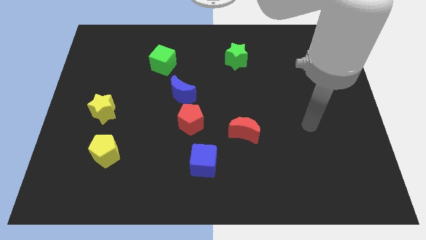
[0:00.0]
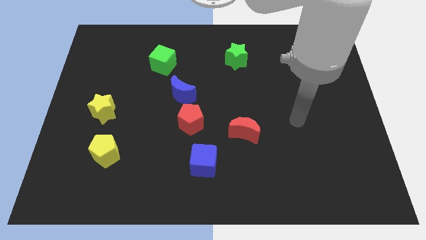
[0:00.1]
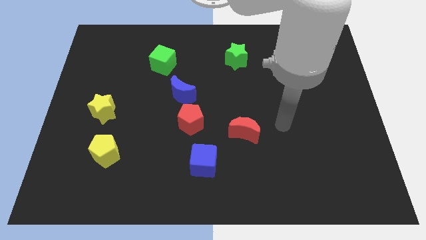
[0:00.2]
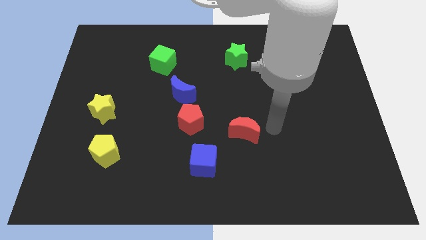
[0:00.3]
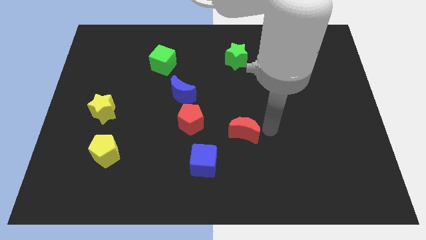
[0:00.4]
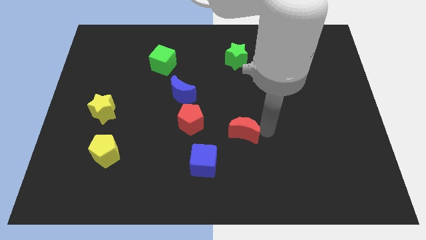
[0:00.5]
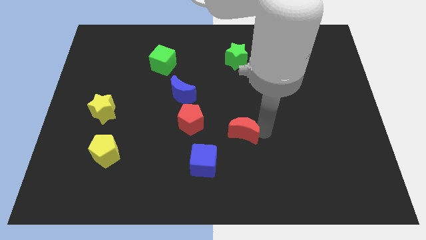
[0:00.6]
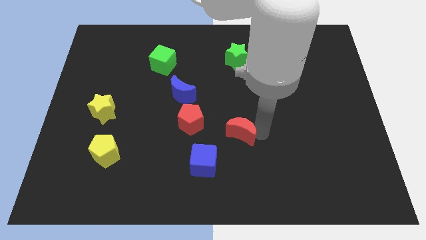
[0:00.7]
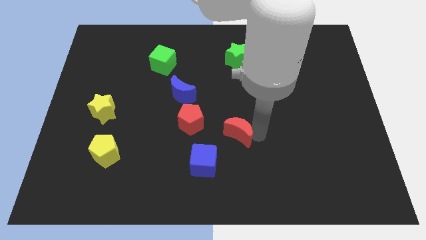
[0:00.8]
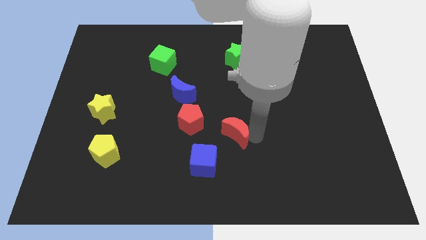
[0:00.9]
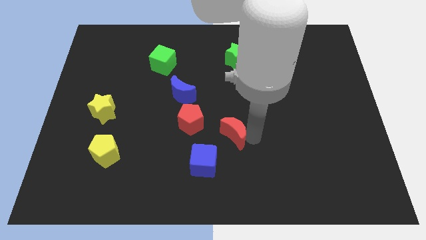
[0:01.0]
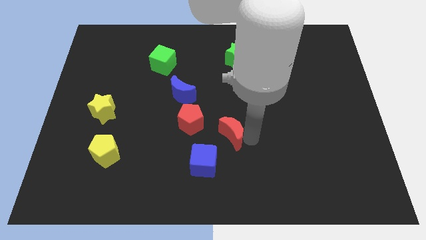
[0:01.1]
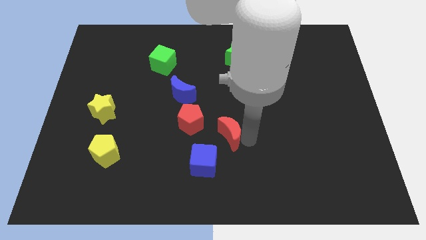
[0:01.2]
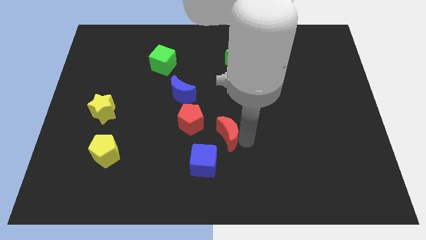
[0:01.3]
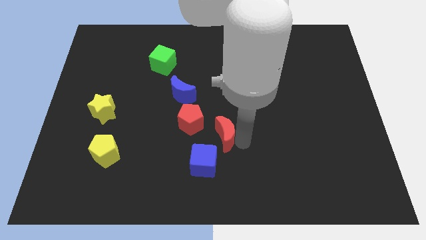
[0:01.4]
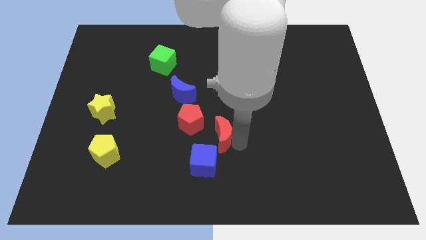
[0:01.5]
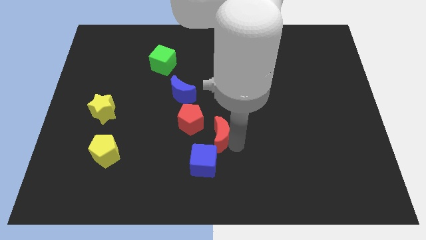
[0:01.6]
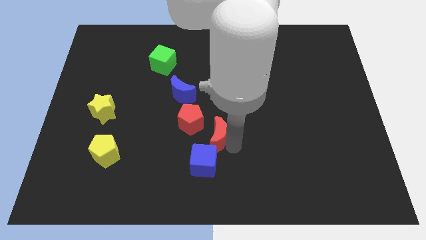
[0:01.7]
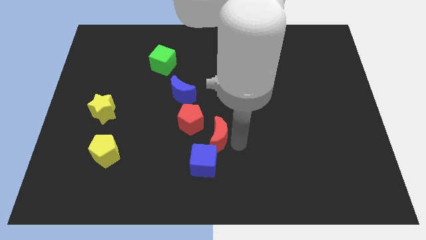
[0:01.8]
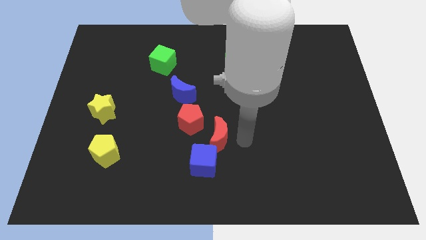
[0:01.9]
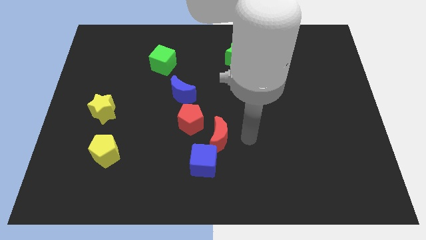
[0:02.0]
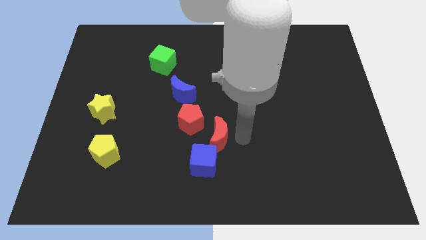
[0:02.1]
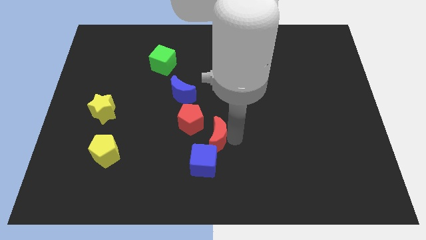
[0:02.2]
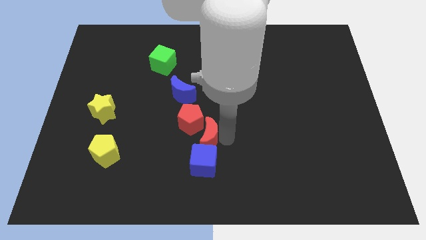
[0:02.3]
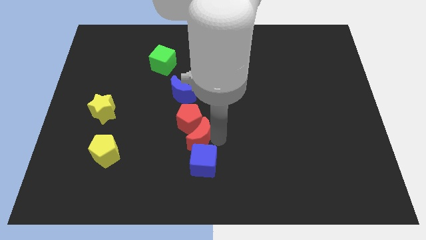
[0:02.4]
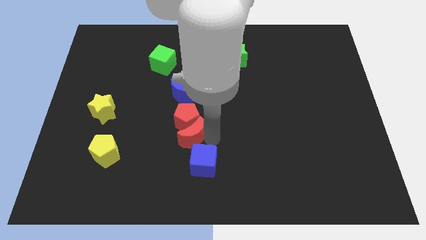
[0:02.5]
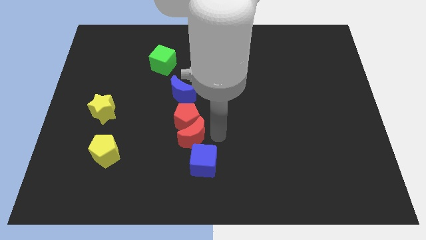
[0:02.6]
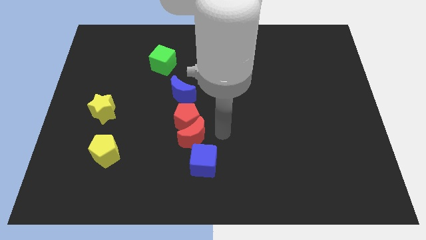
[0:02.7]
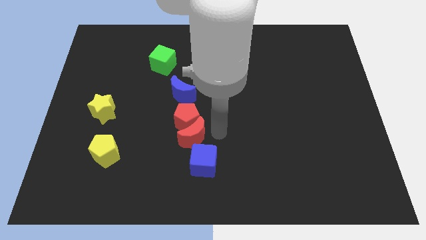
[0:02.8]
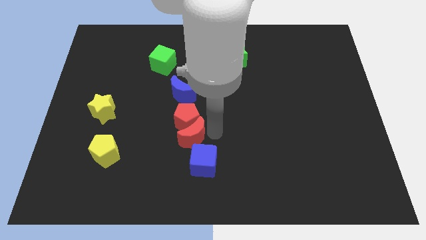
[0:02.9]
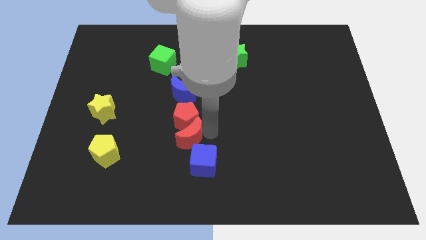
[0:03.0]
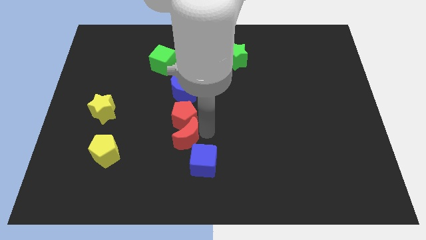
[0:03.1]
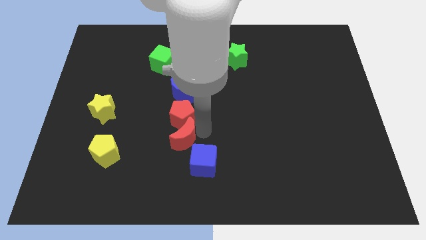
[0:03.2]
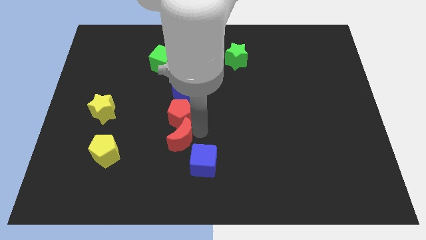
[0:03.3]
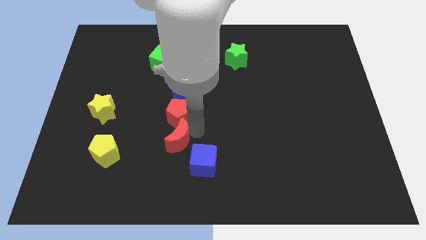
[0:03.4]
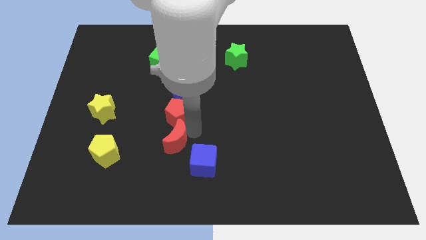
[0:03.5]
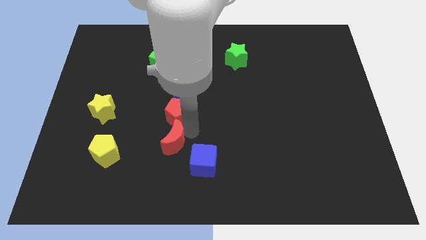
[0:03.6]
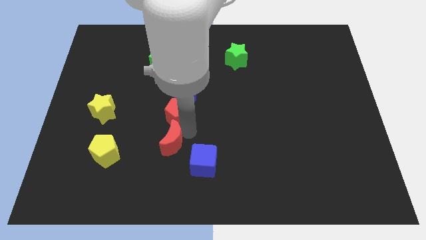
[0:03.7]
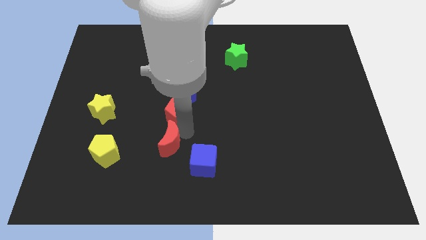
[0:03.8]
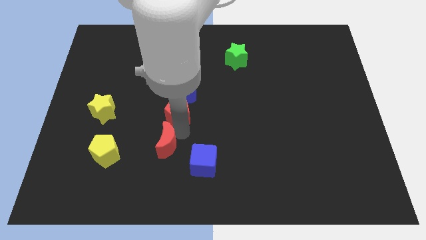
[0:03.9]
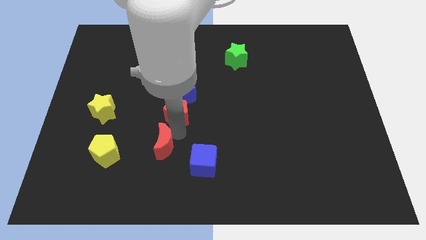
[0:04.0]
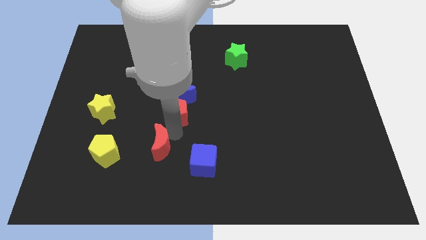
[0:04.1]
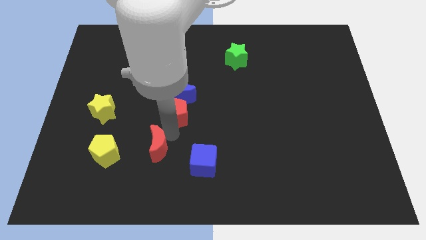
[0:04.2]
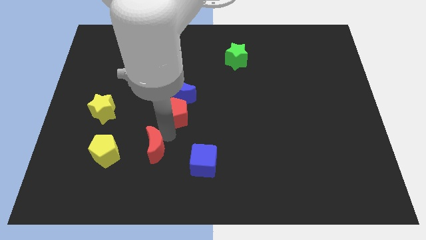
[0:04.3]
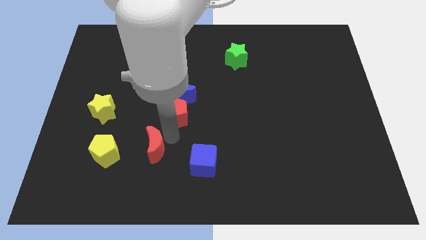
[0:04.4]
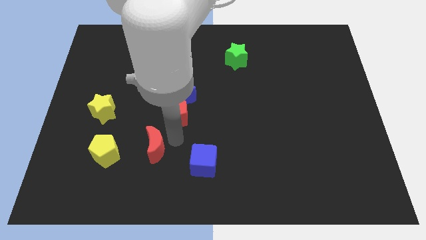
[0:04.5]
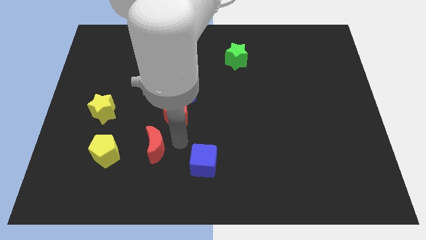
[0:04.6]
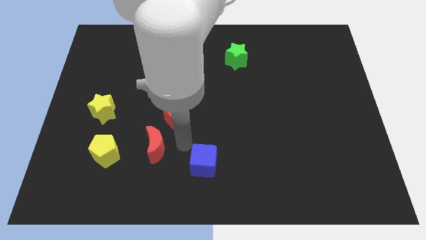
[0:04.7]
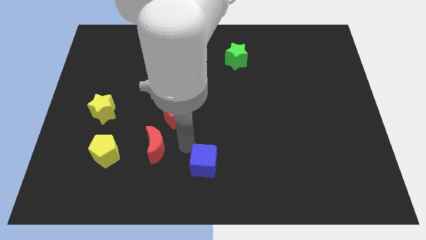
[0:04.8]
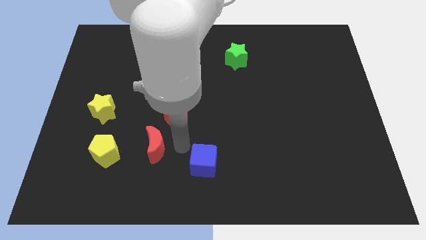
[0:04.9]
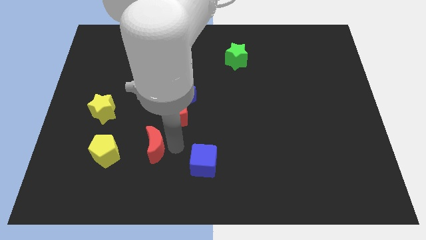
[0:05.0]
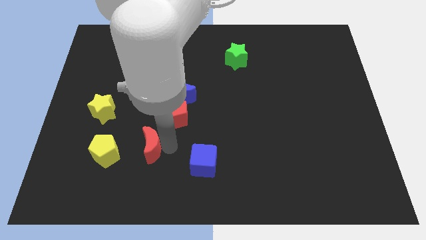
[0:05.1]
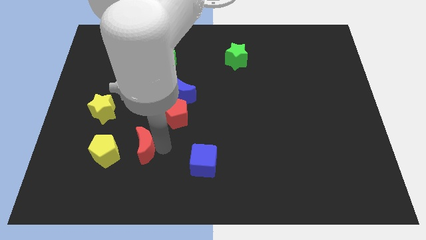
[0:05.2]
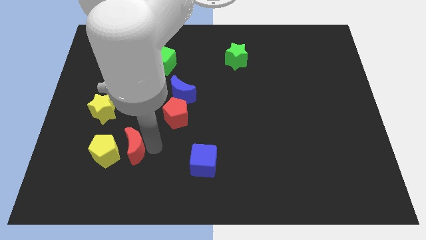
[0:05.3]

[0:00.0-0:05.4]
put the red moon to the yellow pentagon
